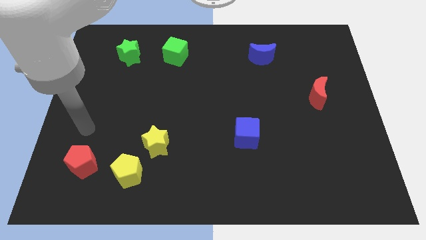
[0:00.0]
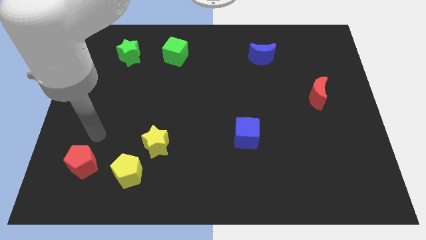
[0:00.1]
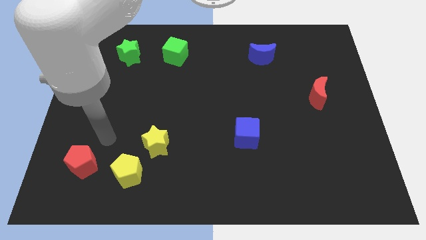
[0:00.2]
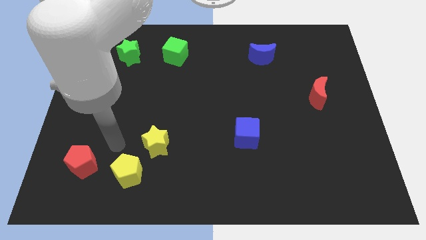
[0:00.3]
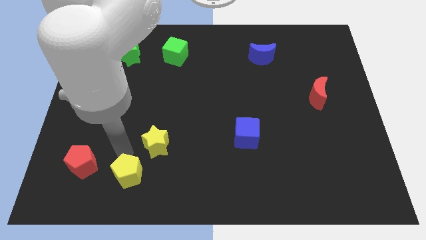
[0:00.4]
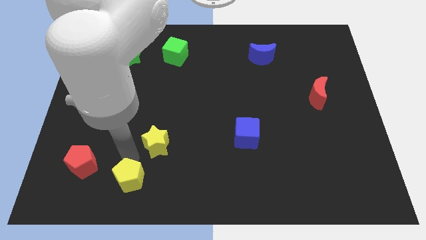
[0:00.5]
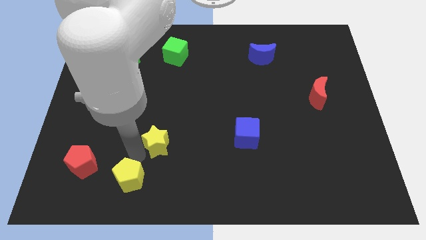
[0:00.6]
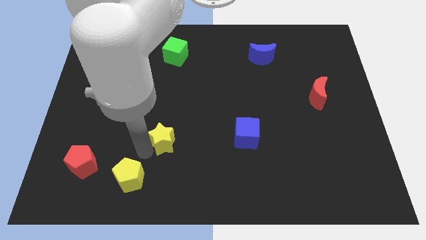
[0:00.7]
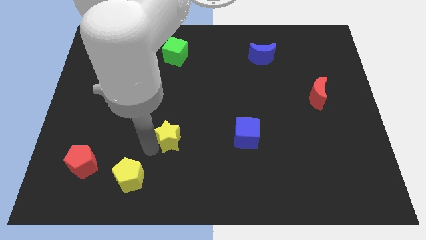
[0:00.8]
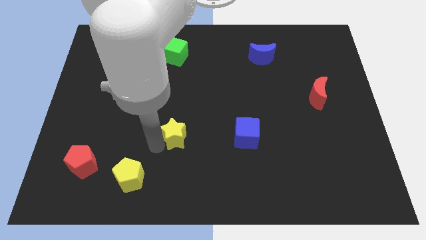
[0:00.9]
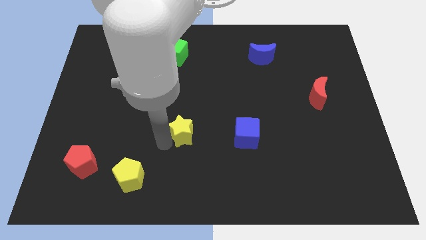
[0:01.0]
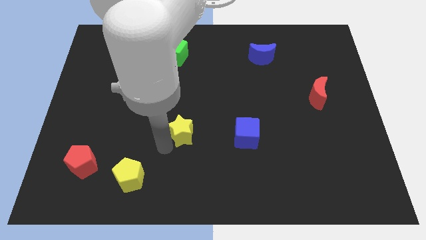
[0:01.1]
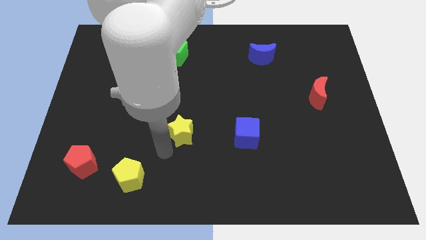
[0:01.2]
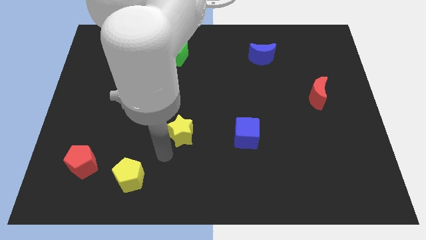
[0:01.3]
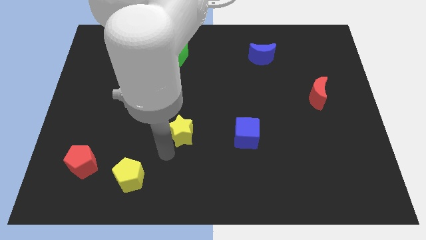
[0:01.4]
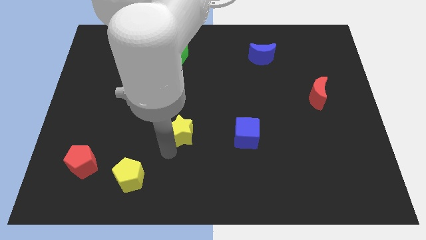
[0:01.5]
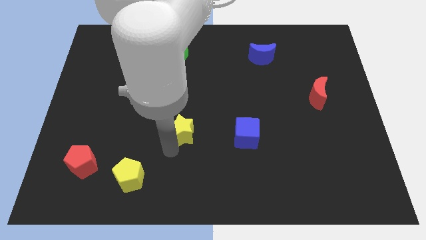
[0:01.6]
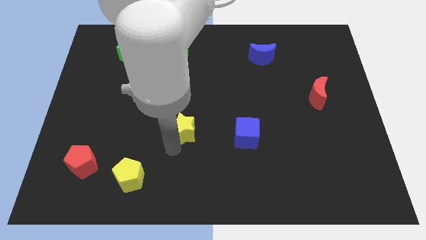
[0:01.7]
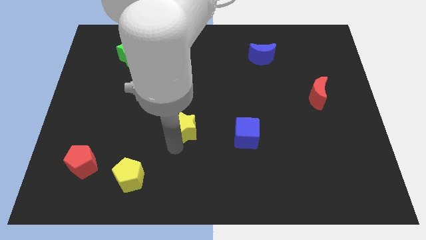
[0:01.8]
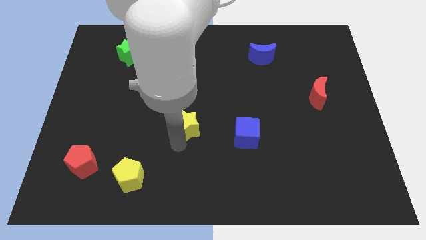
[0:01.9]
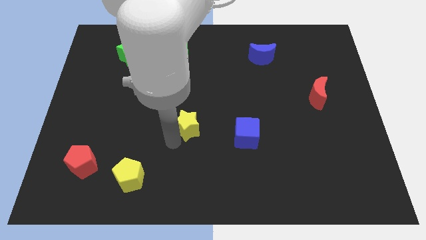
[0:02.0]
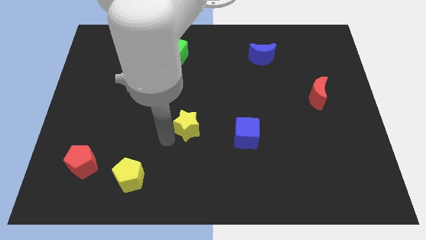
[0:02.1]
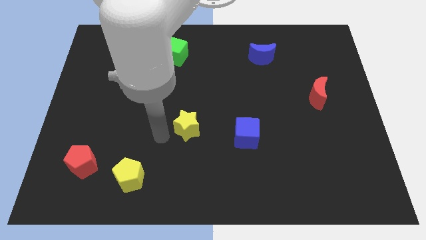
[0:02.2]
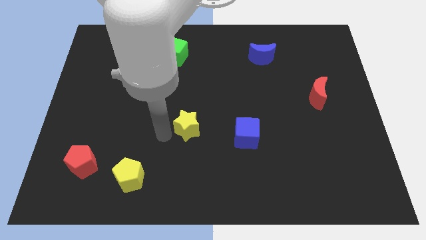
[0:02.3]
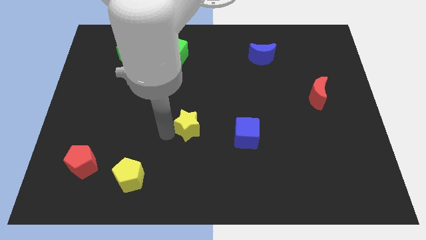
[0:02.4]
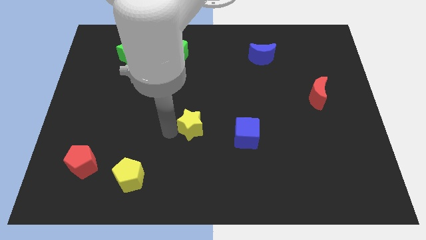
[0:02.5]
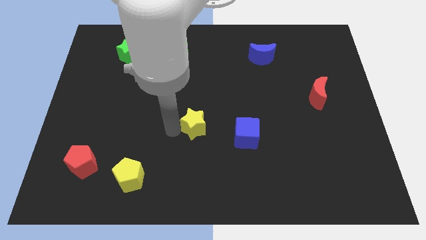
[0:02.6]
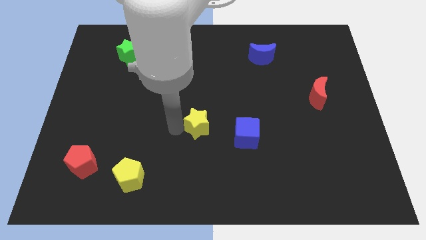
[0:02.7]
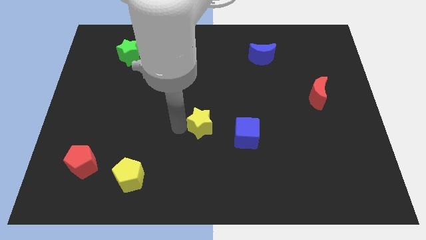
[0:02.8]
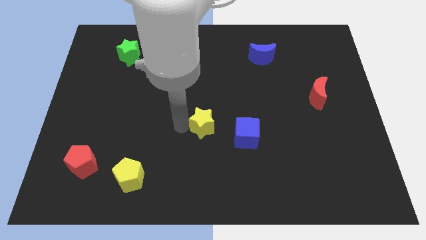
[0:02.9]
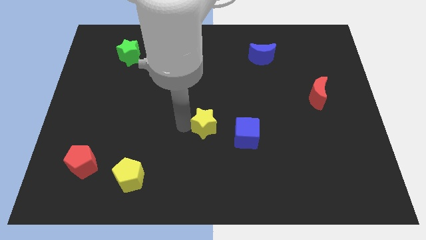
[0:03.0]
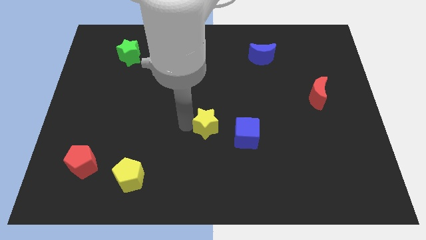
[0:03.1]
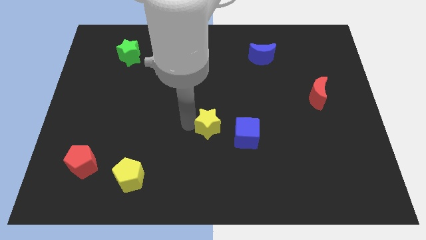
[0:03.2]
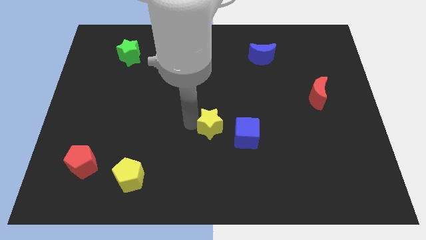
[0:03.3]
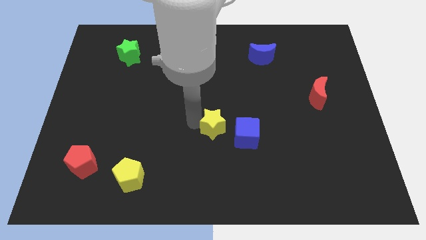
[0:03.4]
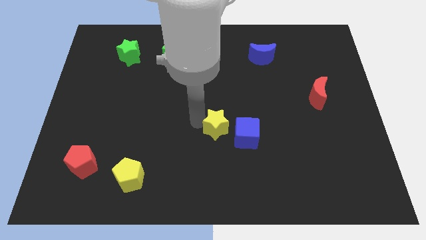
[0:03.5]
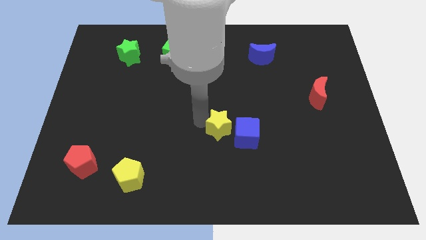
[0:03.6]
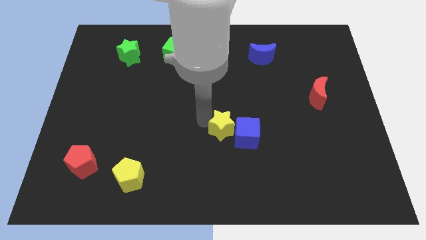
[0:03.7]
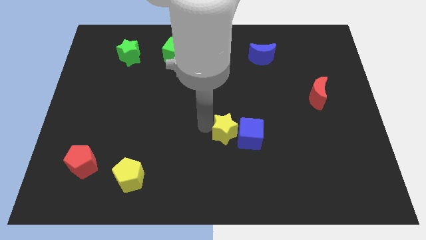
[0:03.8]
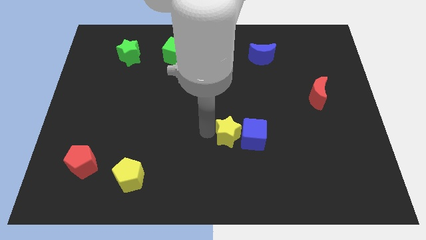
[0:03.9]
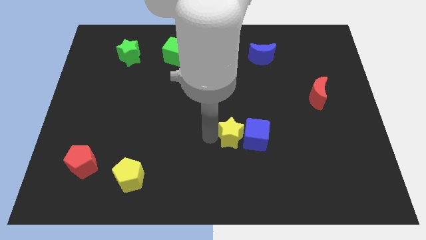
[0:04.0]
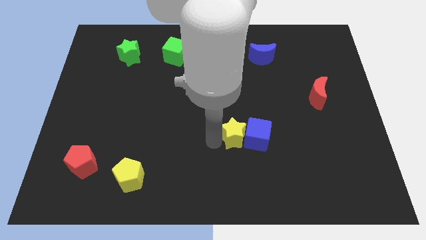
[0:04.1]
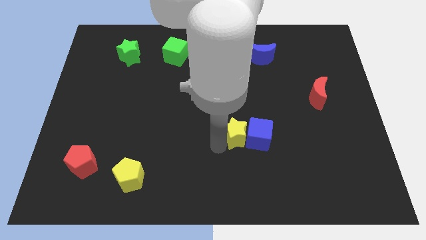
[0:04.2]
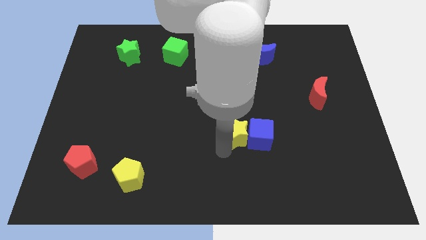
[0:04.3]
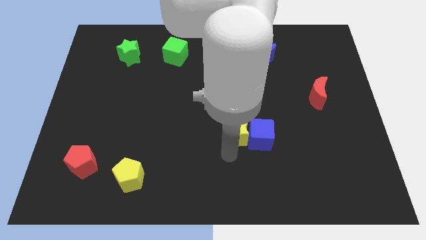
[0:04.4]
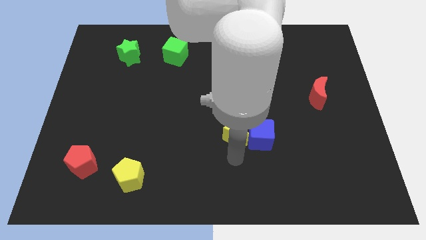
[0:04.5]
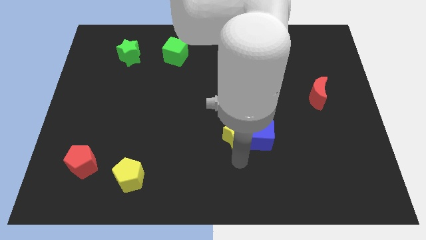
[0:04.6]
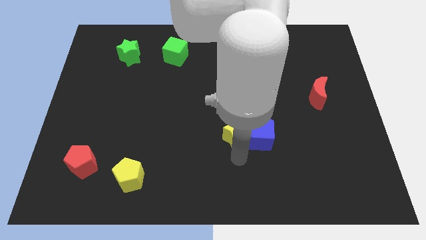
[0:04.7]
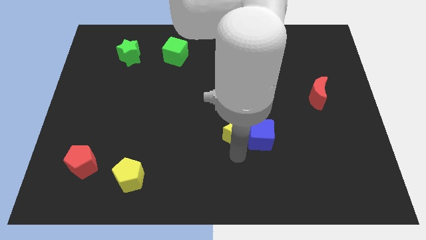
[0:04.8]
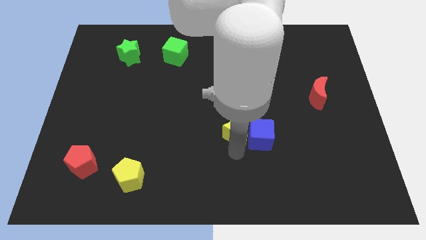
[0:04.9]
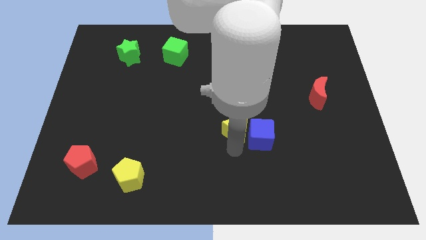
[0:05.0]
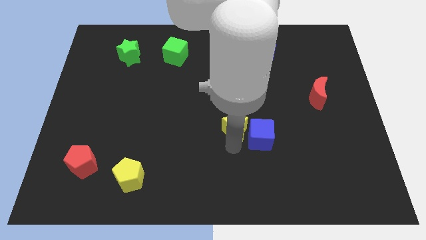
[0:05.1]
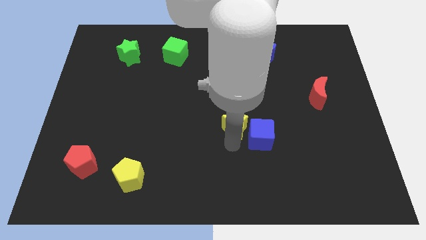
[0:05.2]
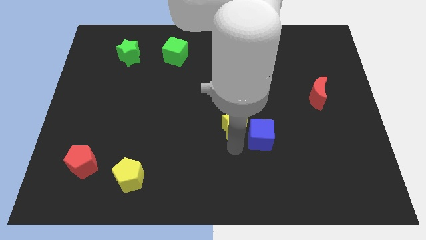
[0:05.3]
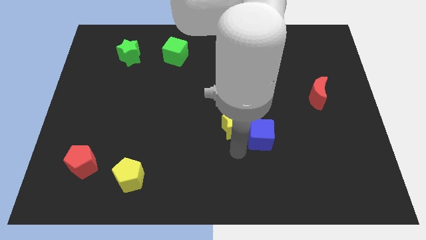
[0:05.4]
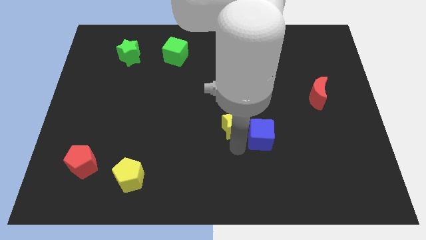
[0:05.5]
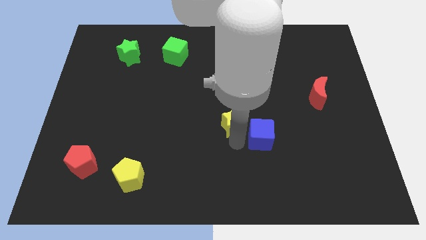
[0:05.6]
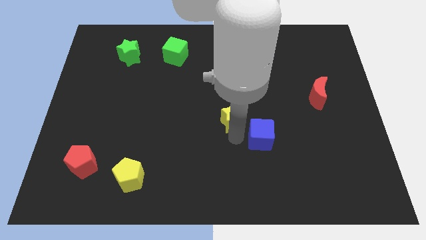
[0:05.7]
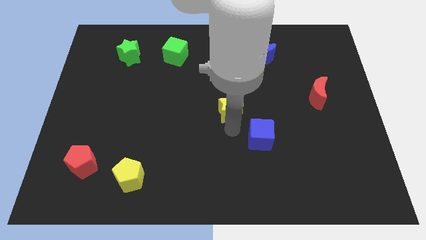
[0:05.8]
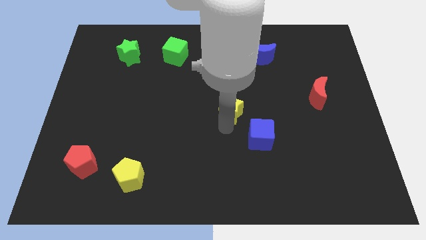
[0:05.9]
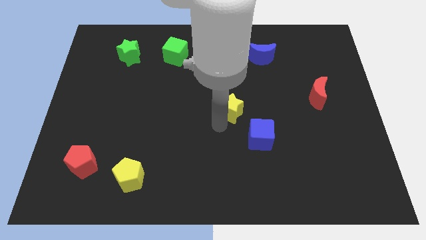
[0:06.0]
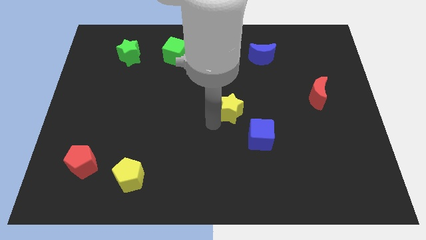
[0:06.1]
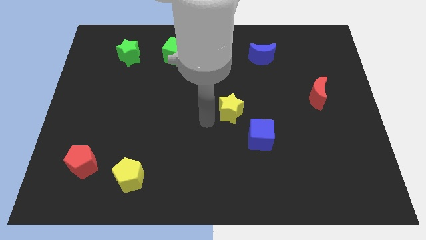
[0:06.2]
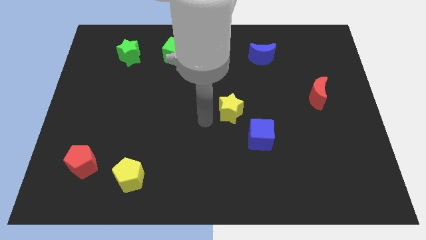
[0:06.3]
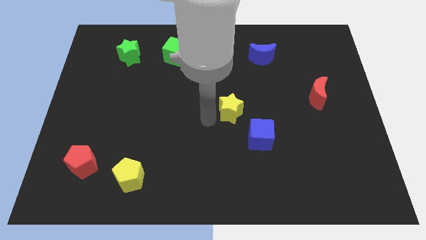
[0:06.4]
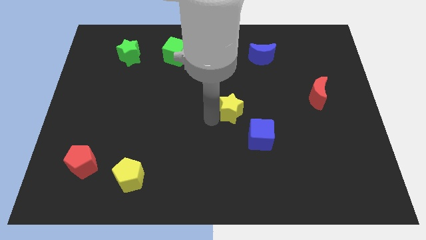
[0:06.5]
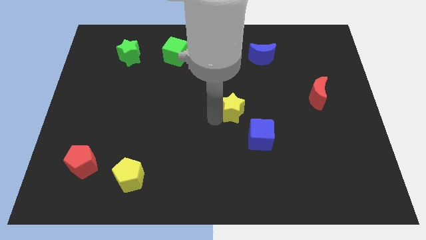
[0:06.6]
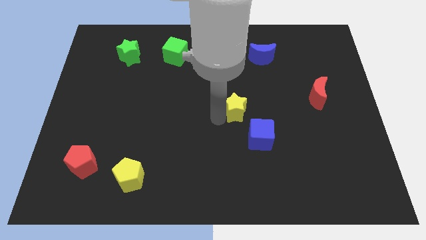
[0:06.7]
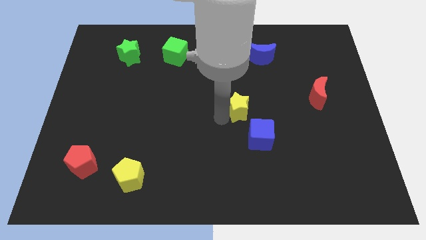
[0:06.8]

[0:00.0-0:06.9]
move the yellow star to the top side of the blue cube

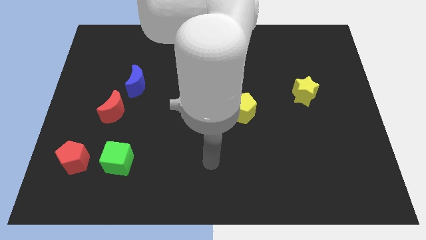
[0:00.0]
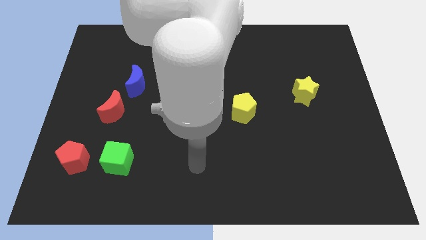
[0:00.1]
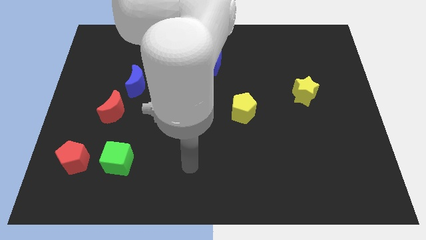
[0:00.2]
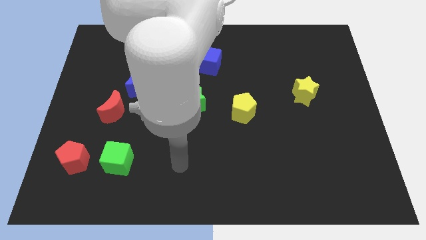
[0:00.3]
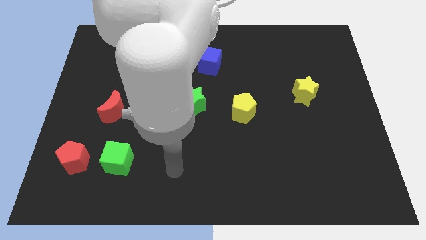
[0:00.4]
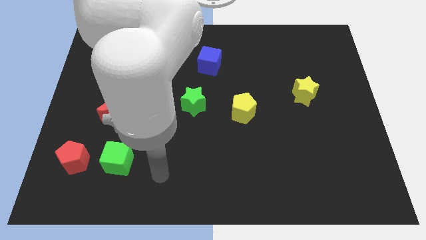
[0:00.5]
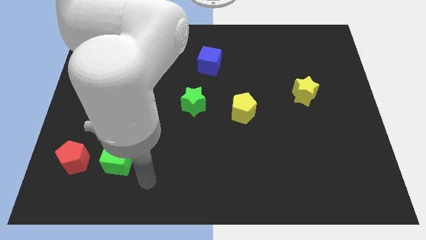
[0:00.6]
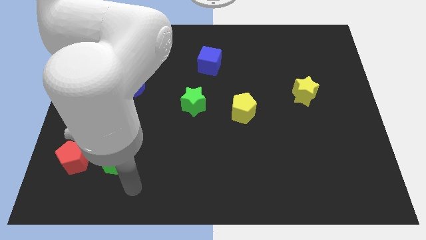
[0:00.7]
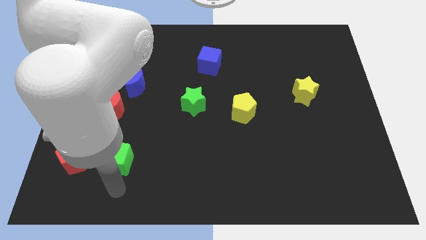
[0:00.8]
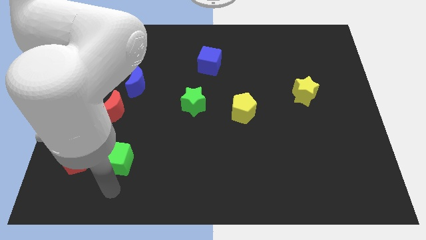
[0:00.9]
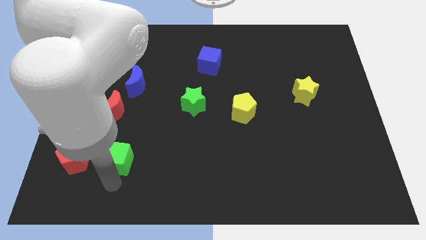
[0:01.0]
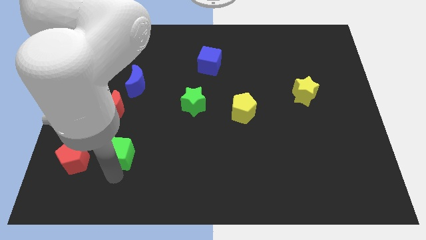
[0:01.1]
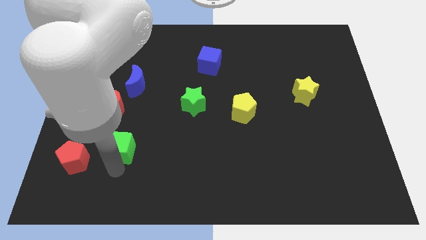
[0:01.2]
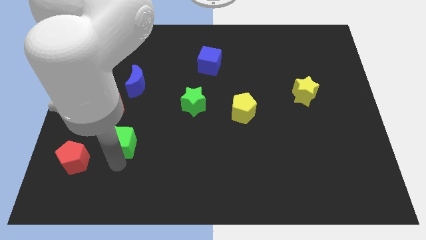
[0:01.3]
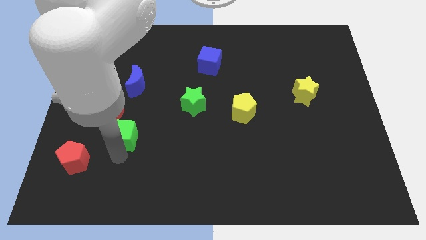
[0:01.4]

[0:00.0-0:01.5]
move the green cube to the bottom of the blue moon
